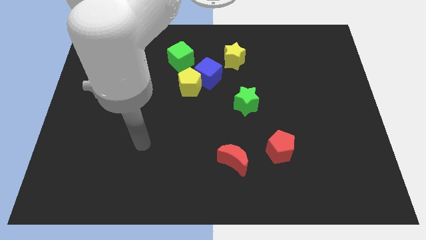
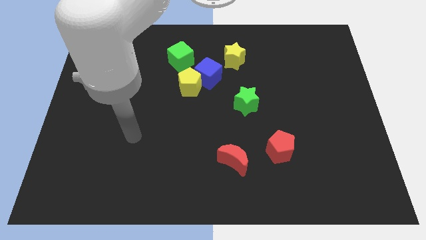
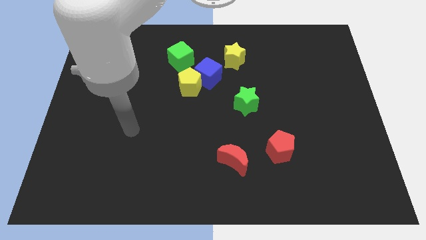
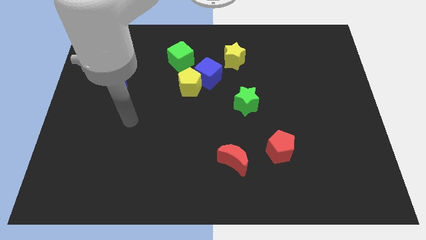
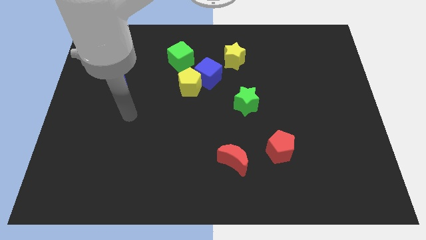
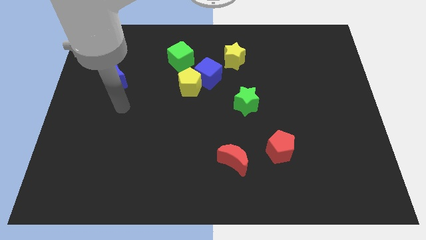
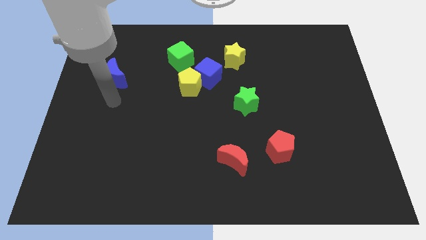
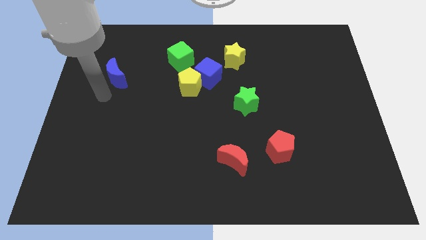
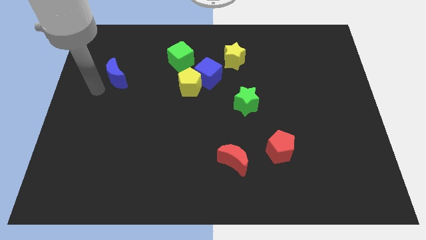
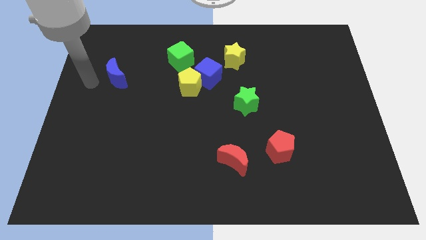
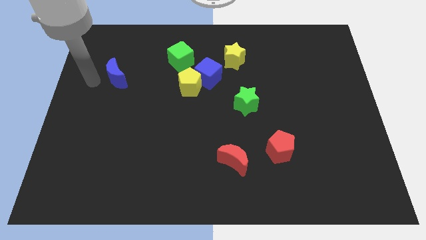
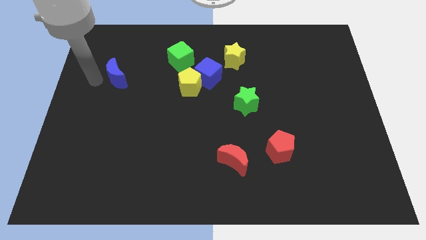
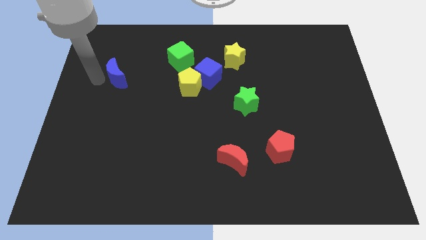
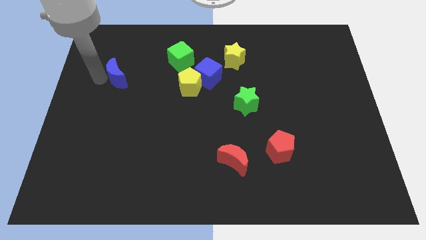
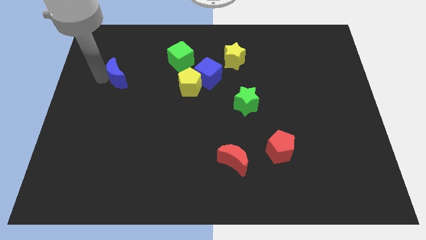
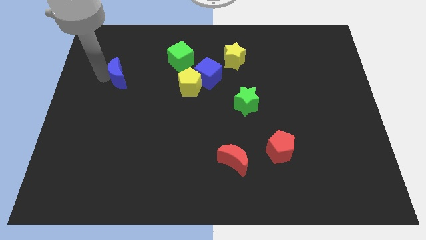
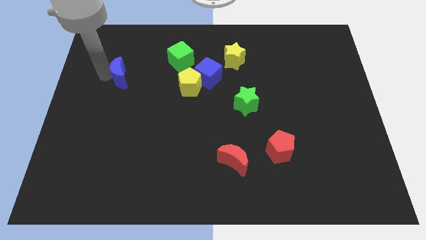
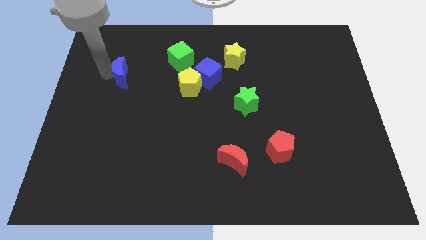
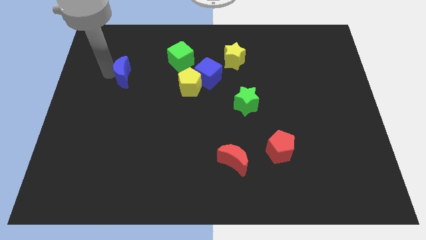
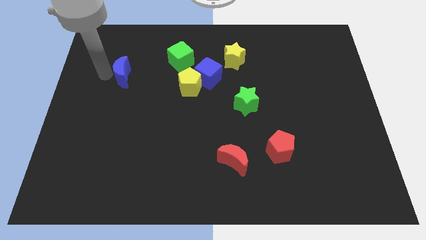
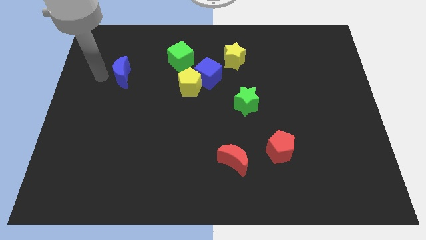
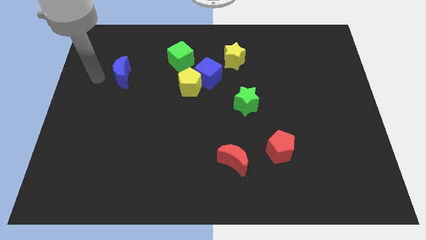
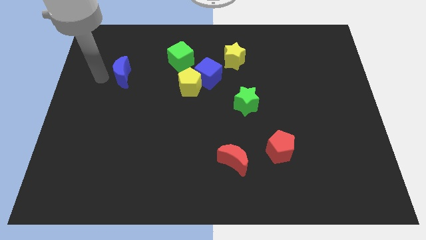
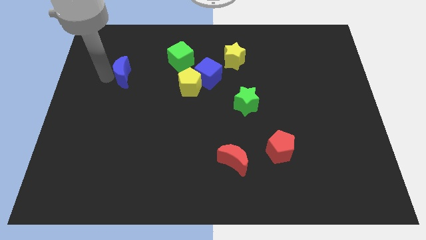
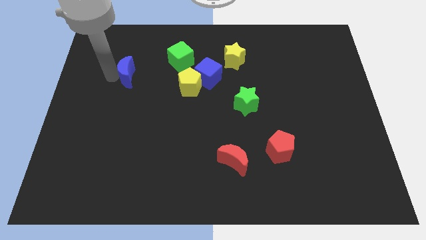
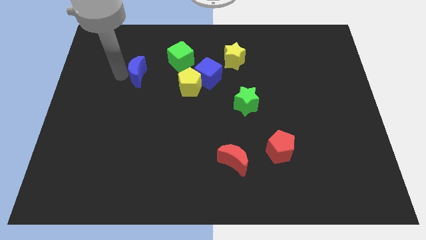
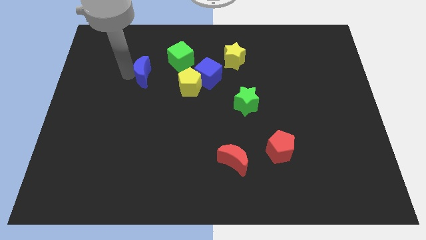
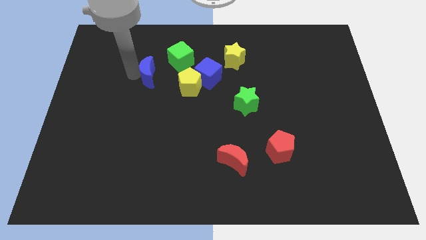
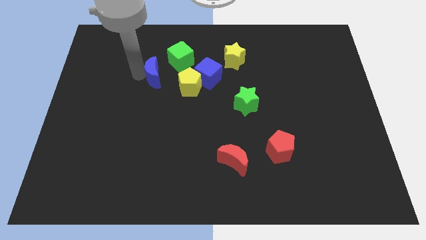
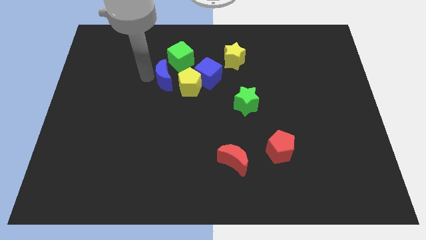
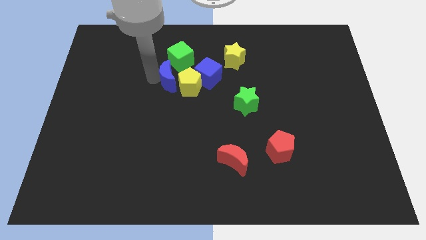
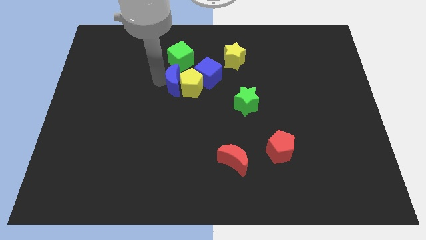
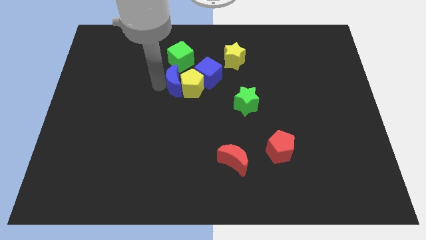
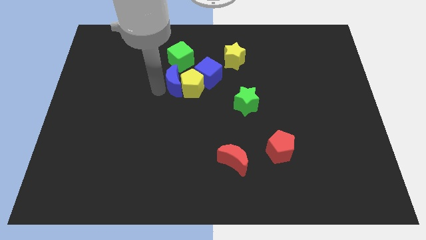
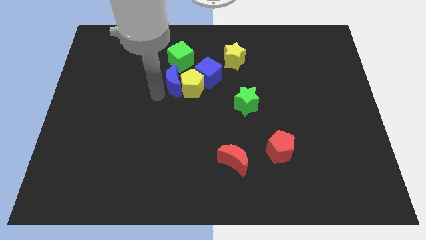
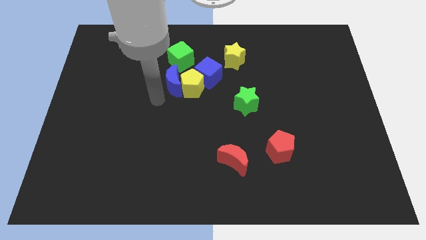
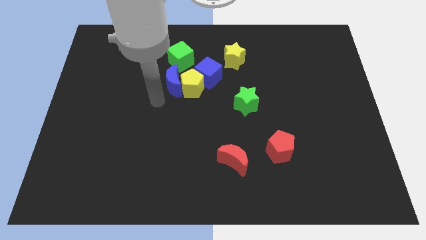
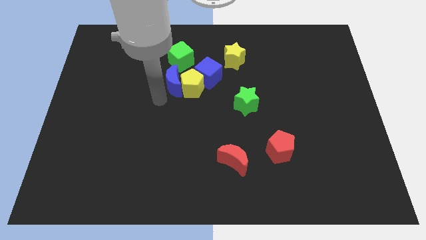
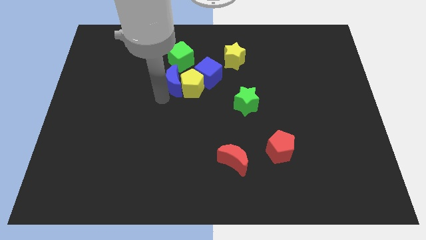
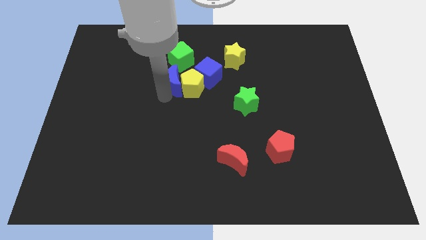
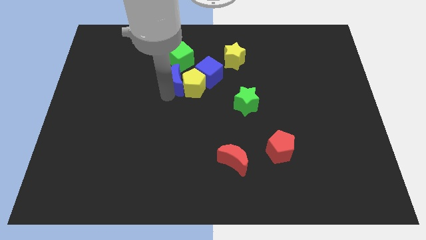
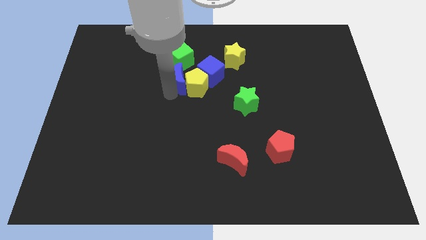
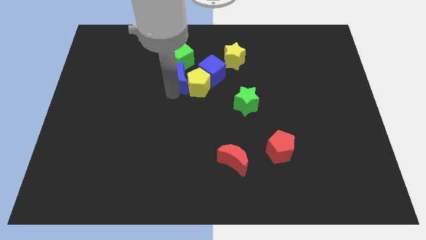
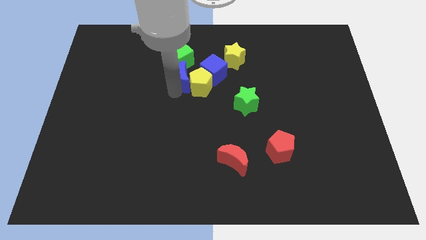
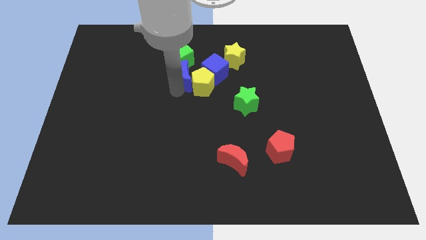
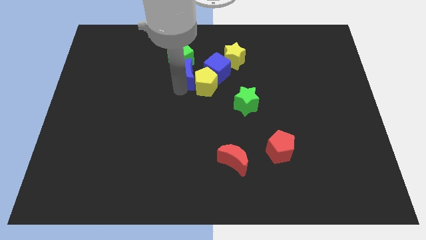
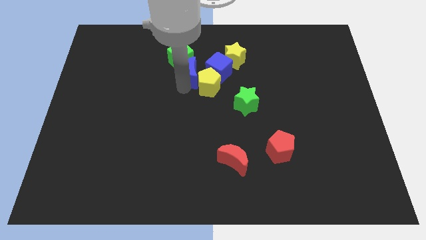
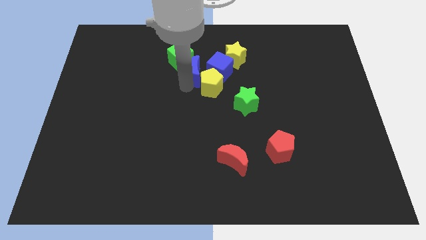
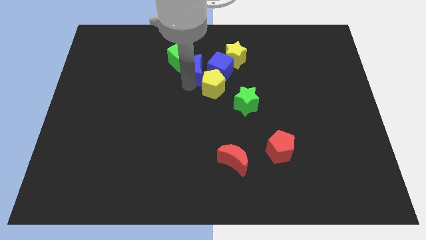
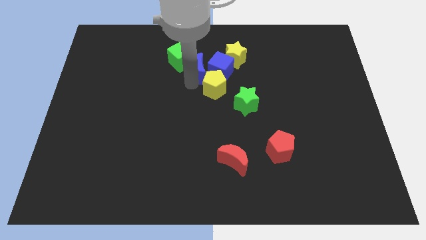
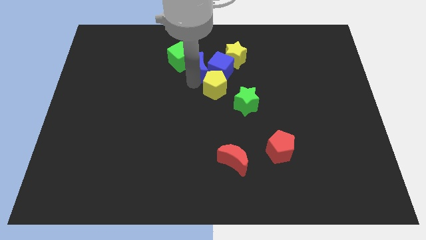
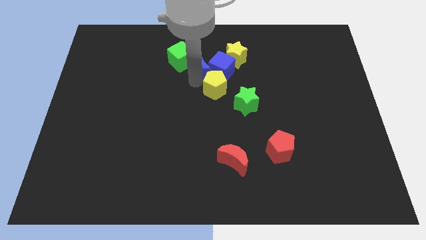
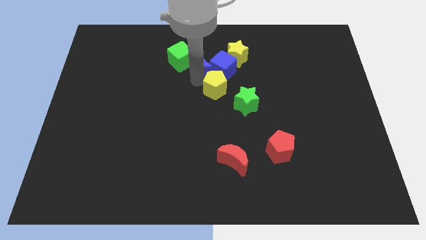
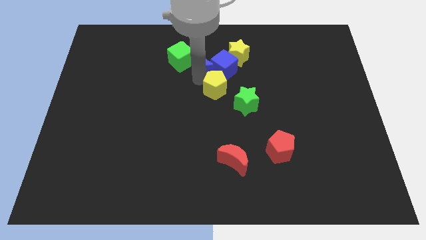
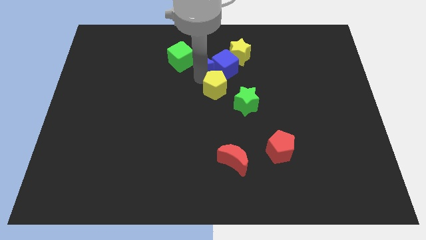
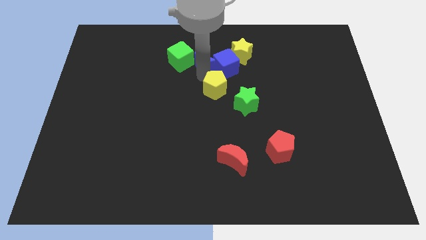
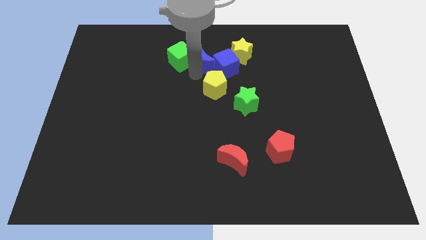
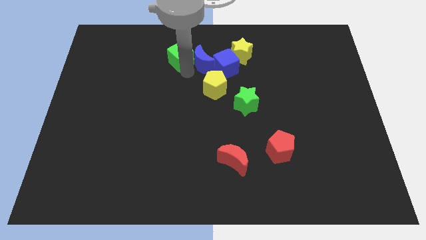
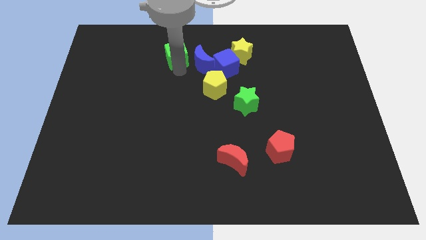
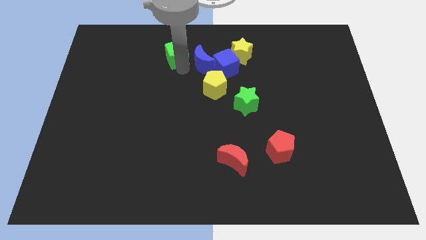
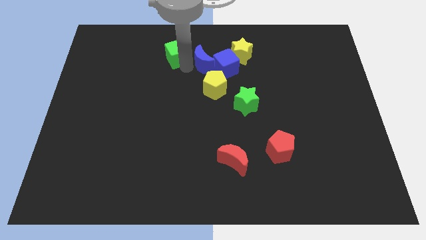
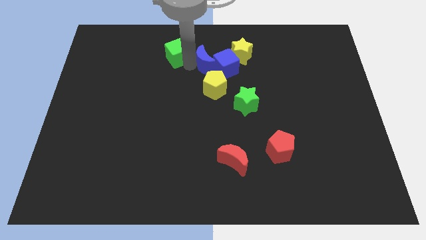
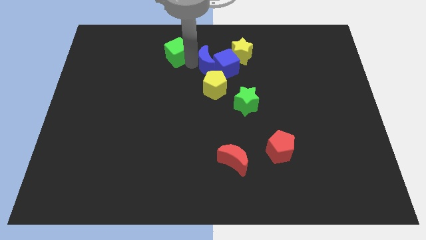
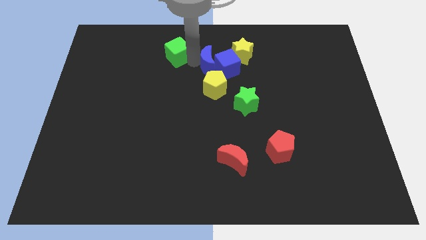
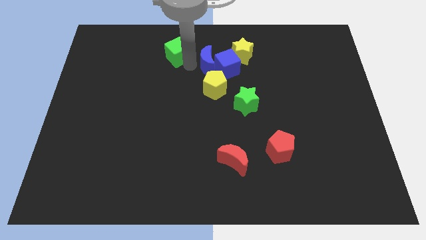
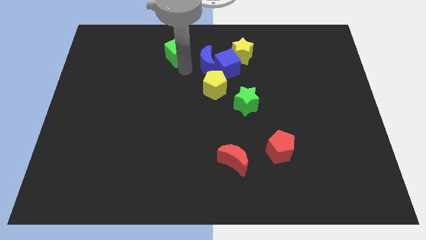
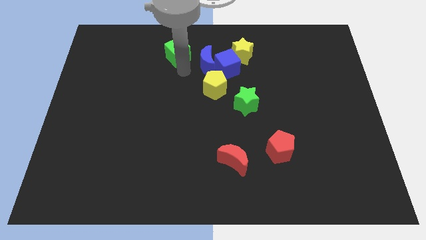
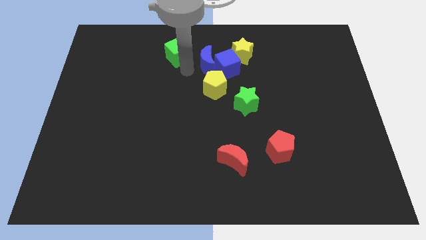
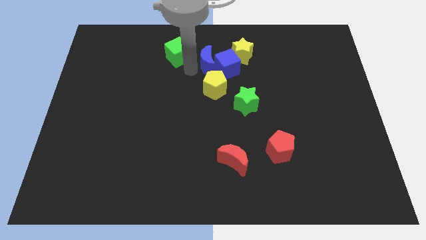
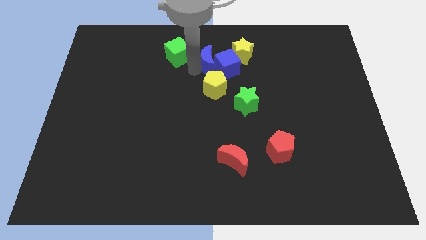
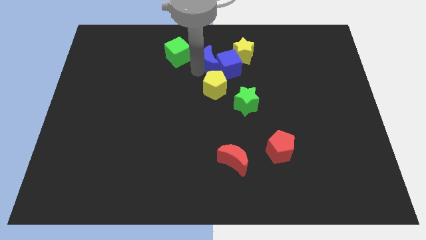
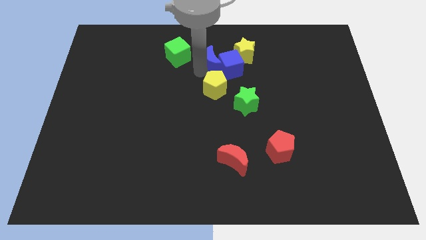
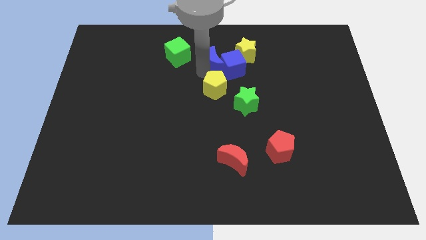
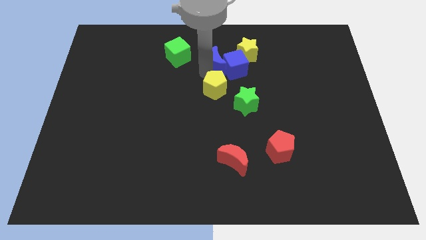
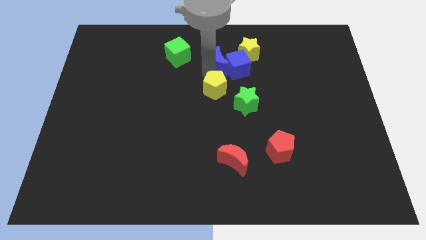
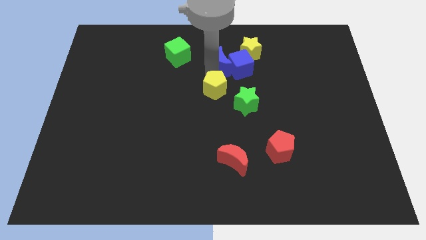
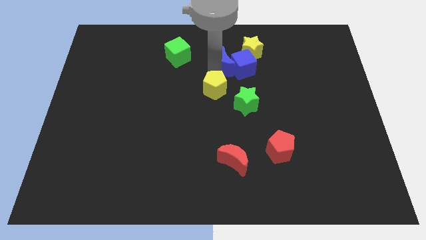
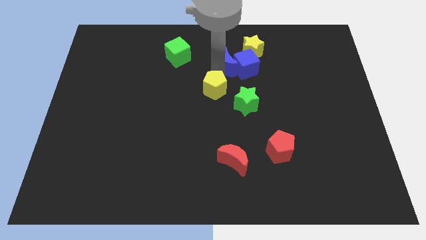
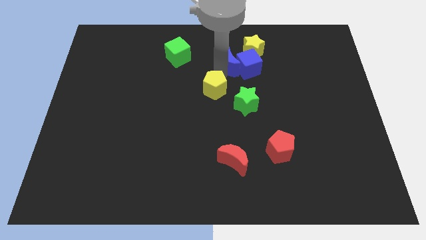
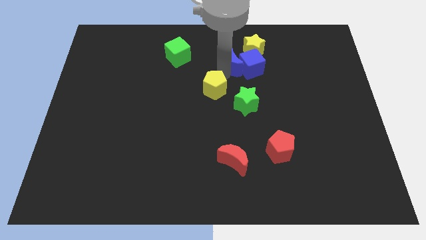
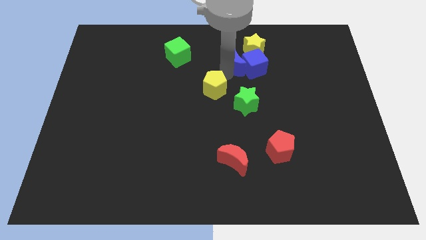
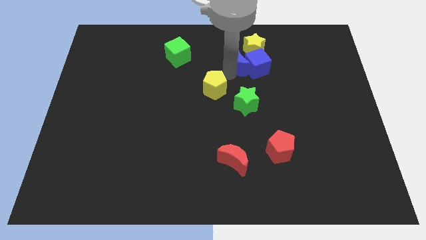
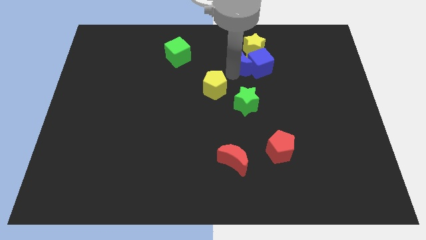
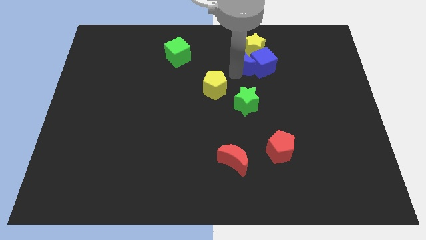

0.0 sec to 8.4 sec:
slide the blue moon next to the yellow star
